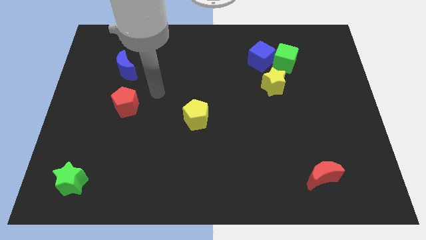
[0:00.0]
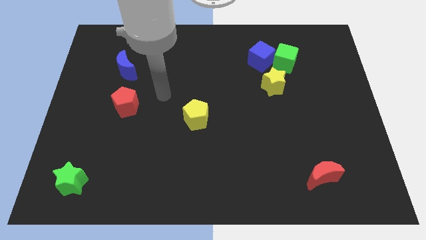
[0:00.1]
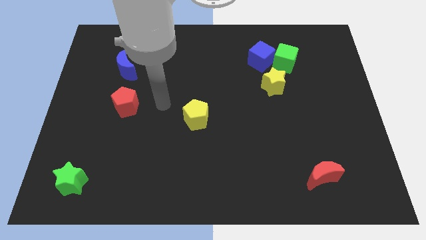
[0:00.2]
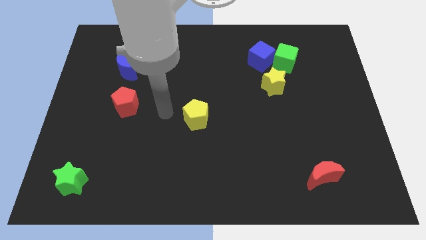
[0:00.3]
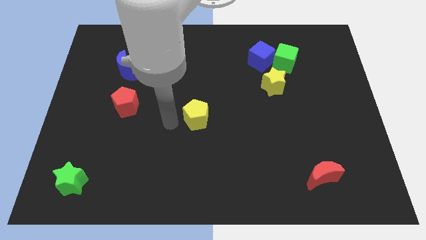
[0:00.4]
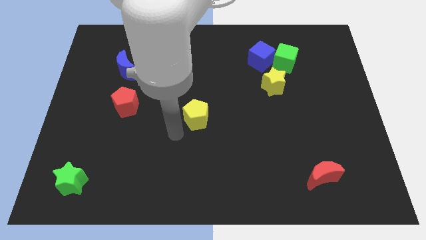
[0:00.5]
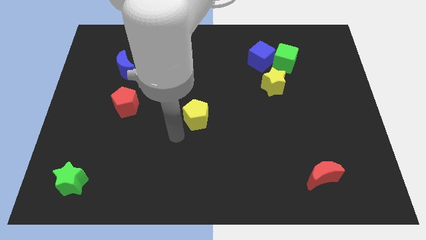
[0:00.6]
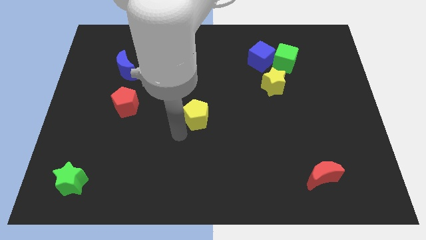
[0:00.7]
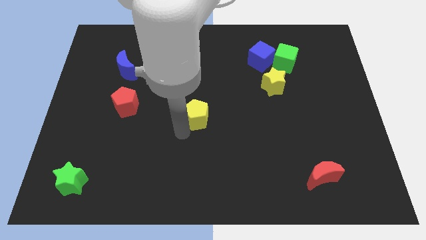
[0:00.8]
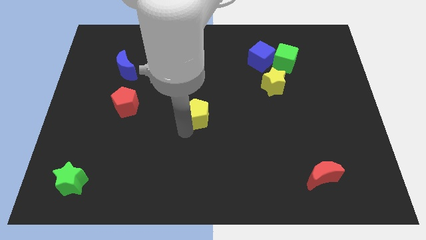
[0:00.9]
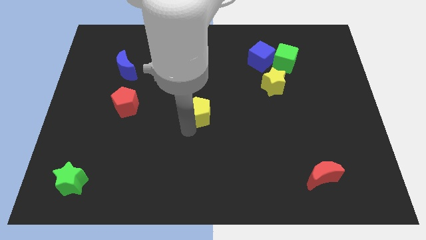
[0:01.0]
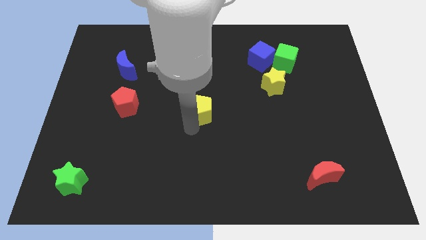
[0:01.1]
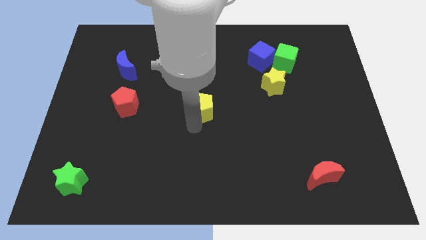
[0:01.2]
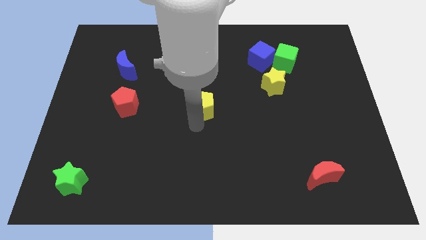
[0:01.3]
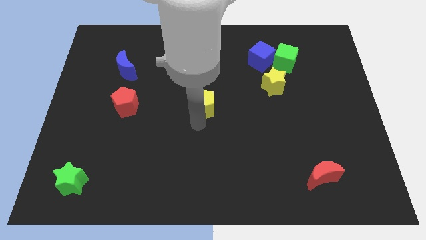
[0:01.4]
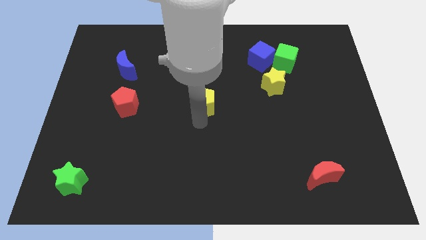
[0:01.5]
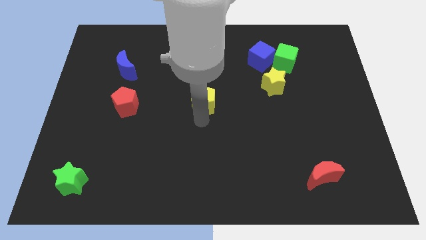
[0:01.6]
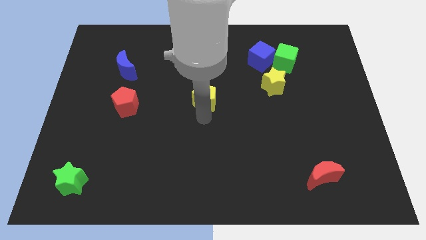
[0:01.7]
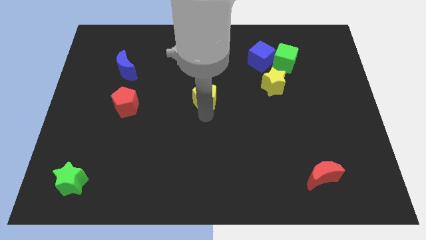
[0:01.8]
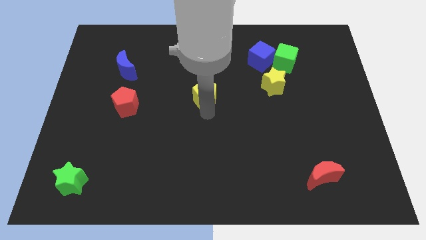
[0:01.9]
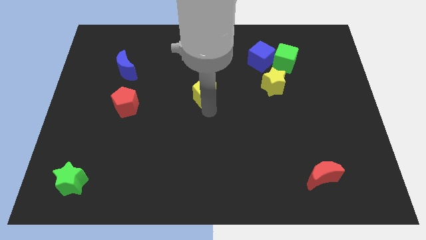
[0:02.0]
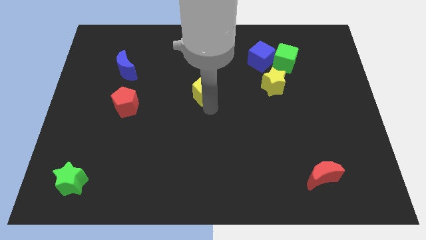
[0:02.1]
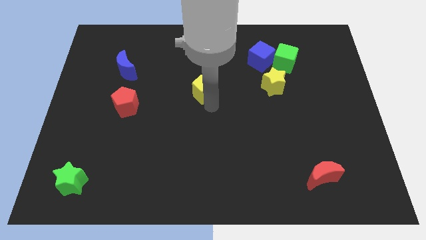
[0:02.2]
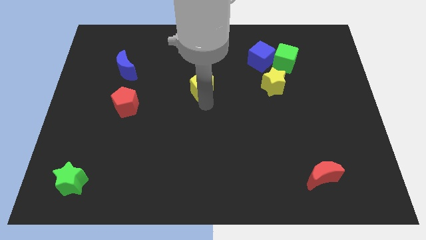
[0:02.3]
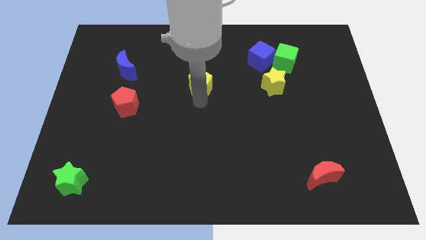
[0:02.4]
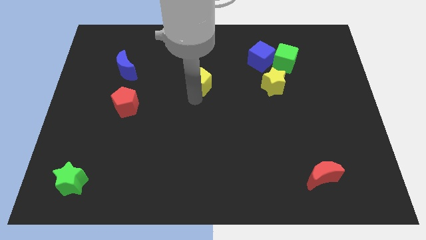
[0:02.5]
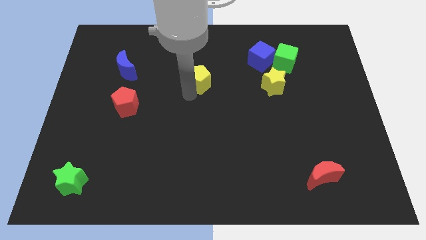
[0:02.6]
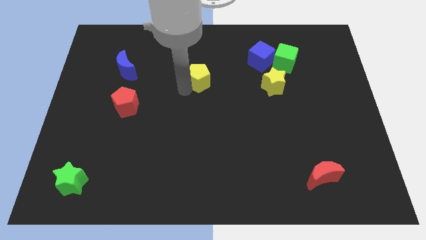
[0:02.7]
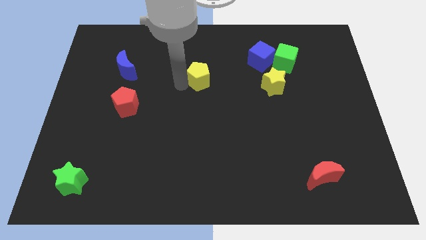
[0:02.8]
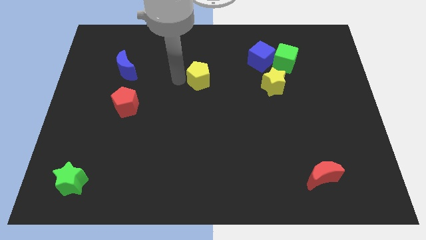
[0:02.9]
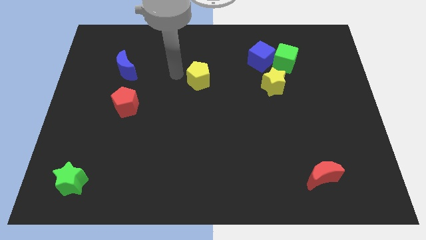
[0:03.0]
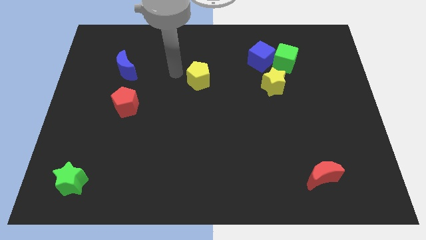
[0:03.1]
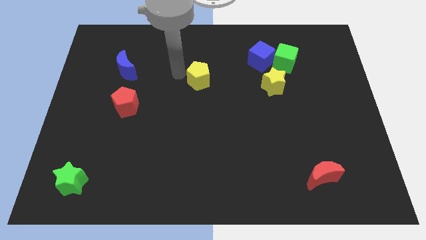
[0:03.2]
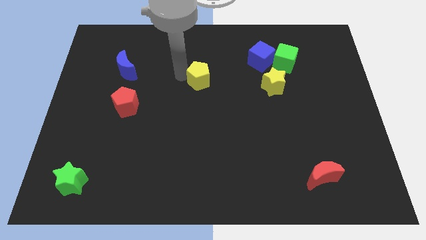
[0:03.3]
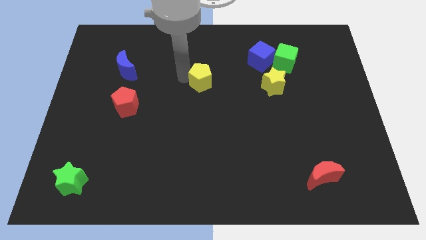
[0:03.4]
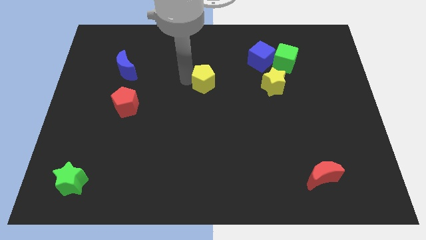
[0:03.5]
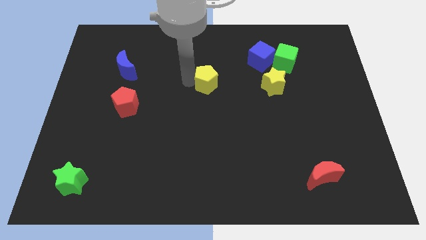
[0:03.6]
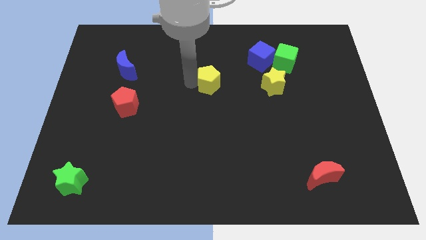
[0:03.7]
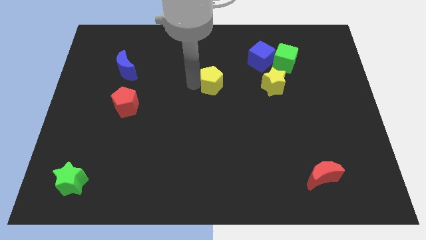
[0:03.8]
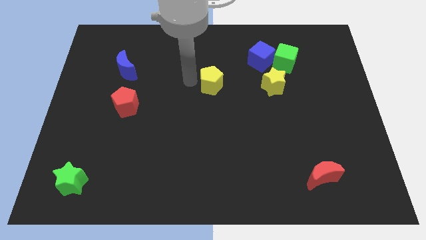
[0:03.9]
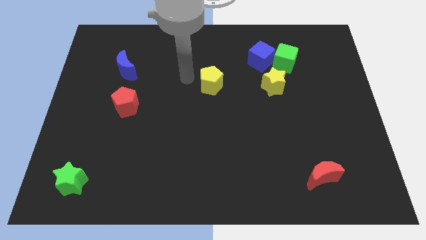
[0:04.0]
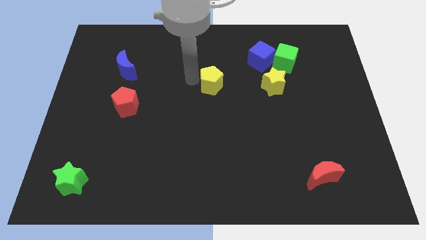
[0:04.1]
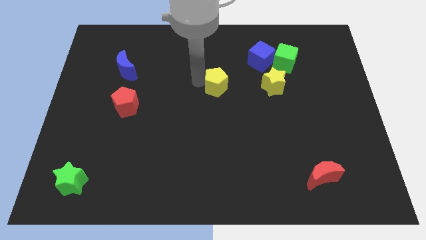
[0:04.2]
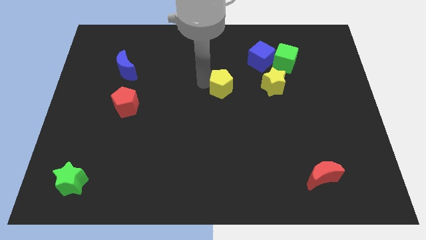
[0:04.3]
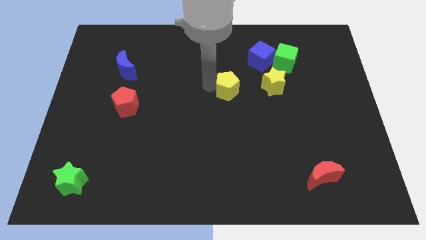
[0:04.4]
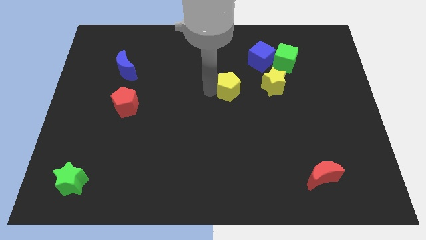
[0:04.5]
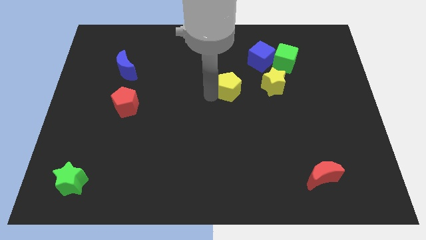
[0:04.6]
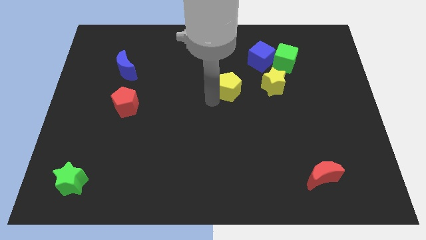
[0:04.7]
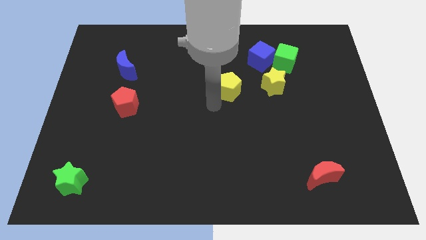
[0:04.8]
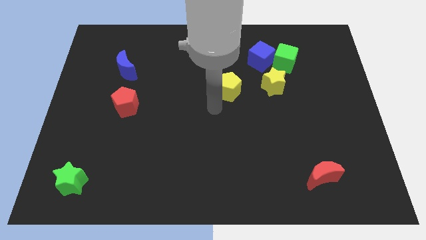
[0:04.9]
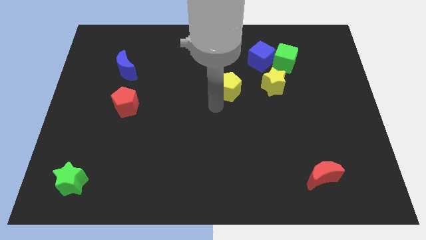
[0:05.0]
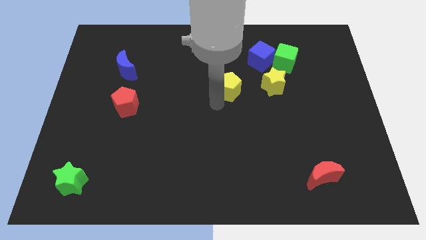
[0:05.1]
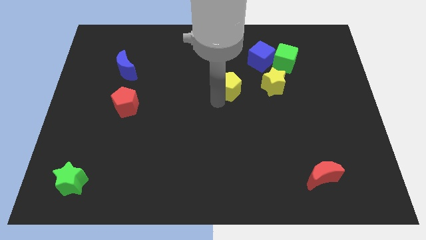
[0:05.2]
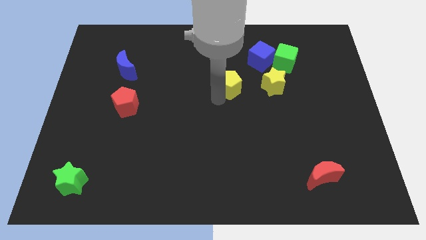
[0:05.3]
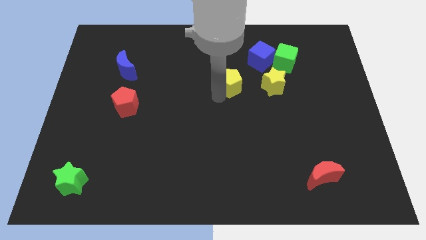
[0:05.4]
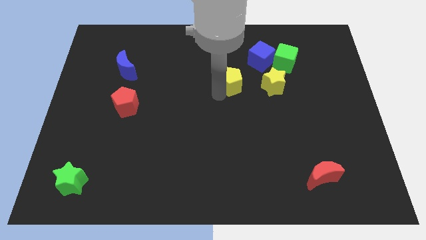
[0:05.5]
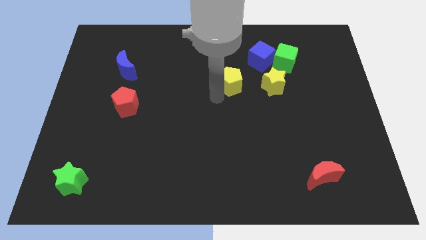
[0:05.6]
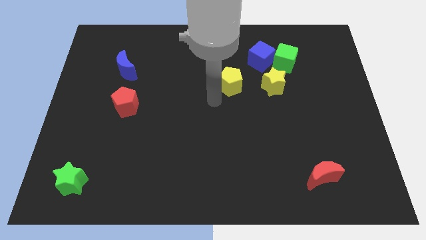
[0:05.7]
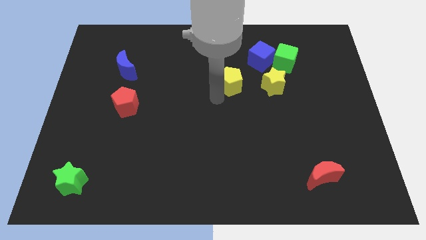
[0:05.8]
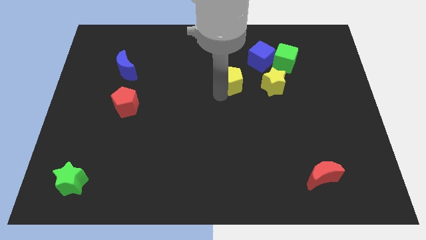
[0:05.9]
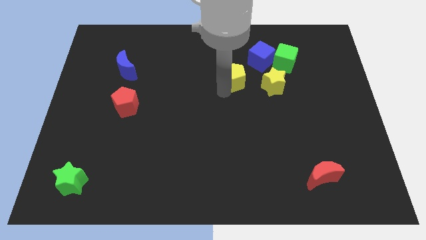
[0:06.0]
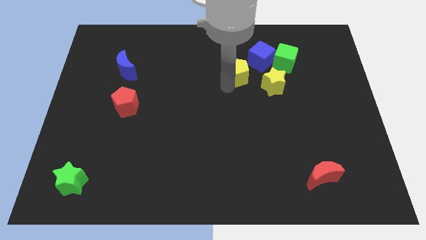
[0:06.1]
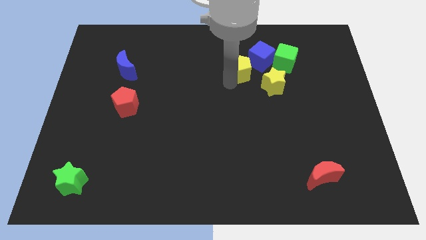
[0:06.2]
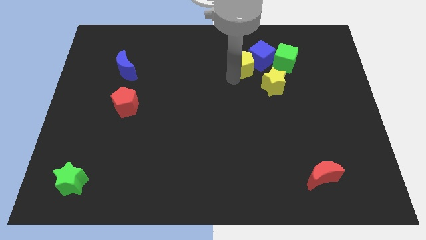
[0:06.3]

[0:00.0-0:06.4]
slide the yellow pentagon towards the blue cube
